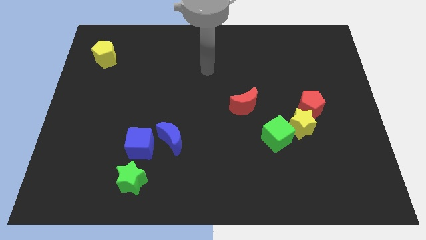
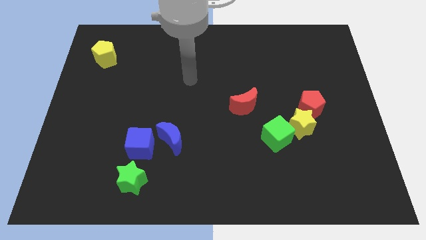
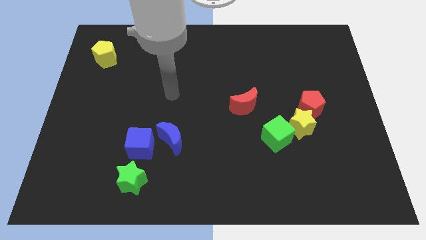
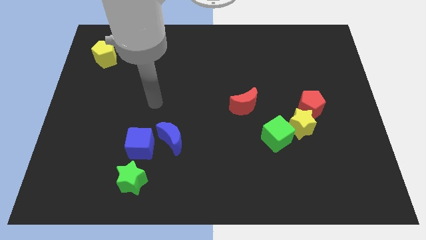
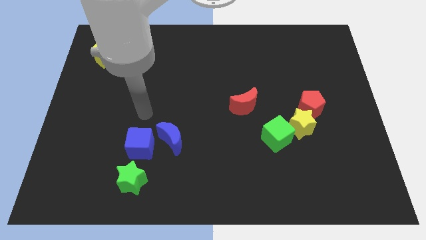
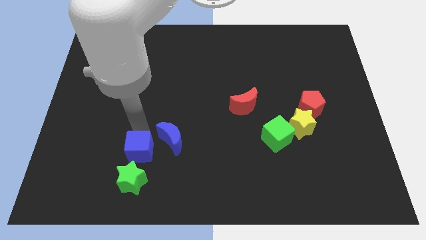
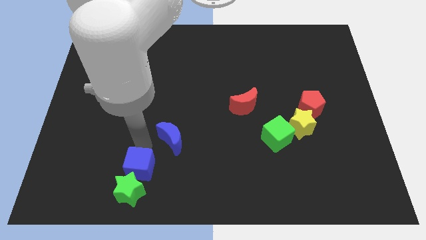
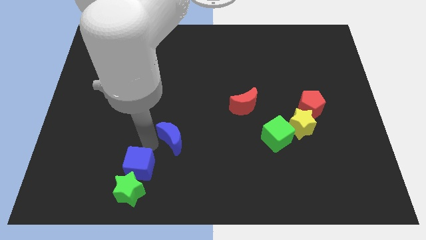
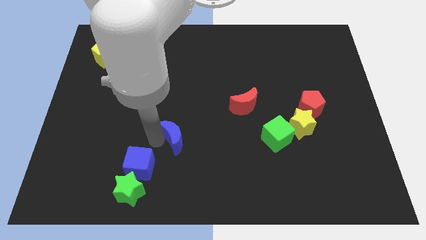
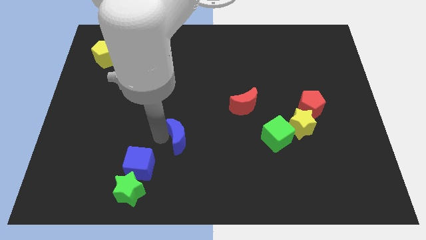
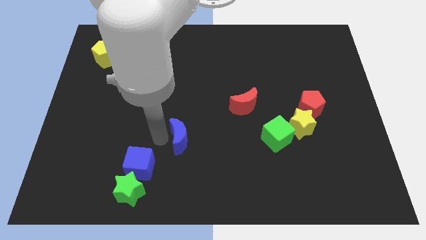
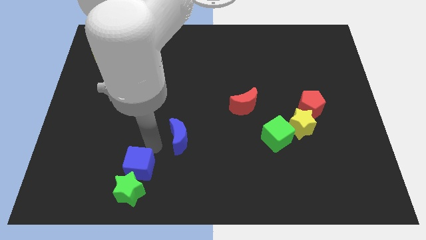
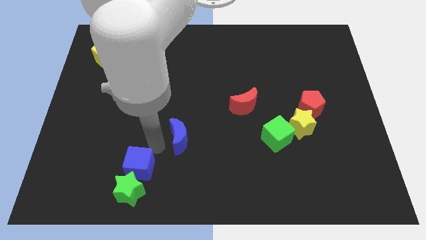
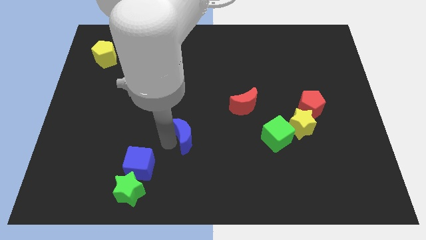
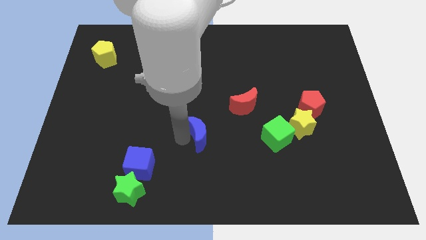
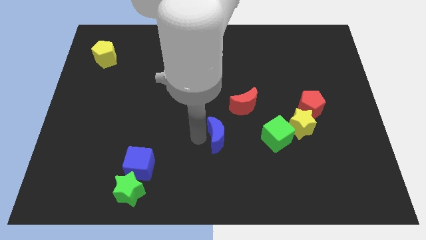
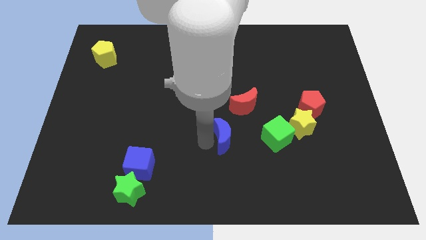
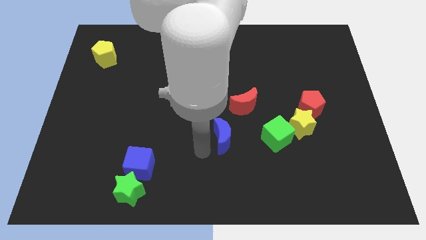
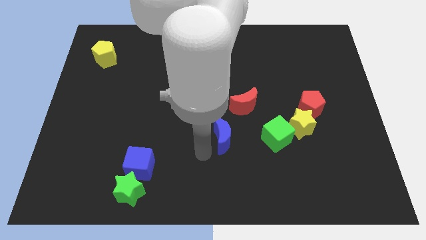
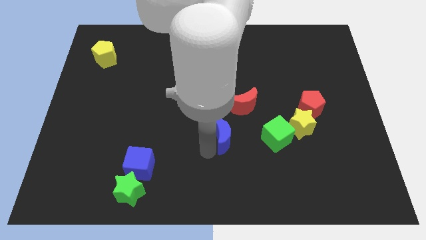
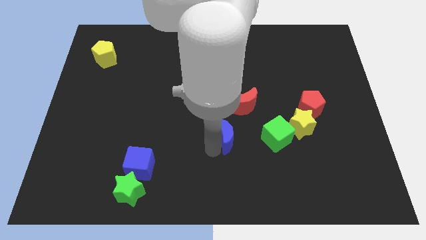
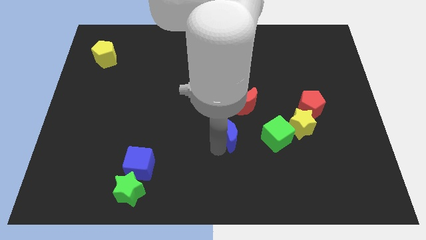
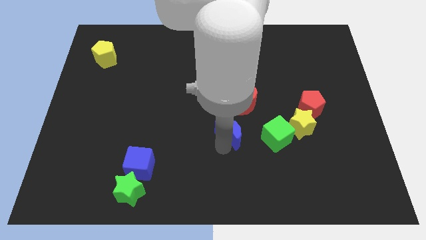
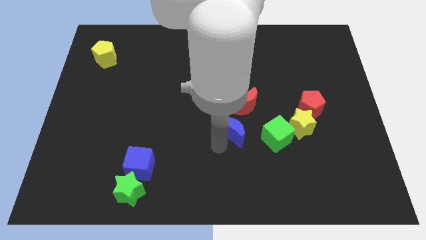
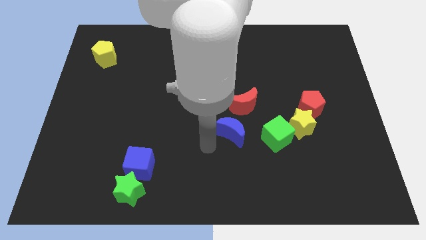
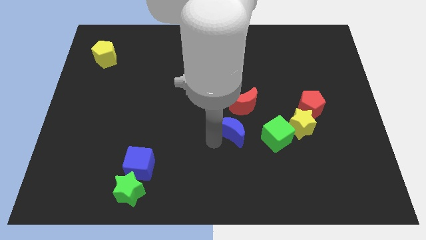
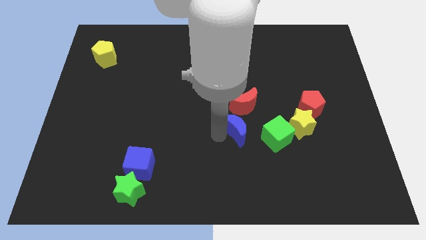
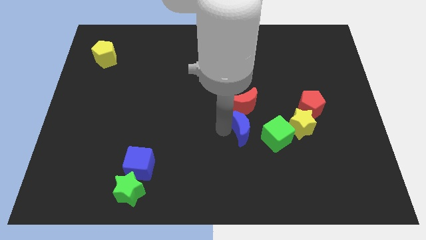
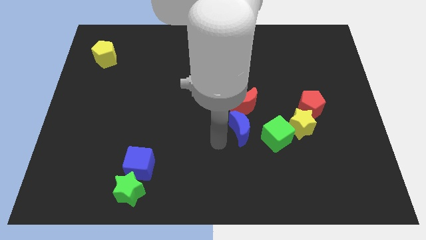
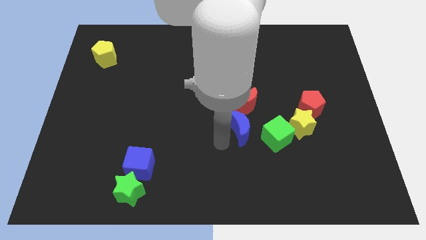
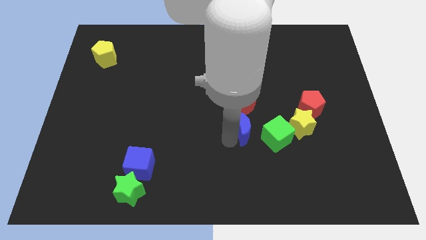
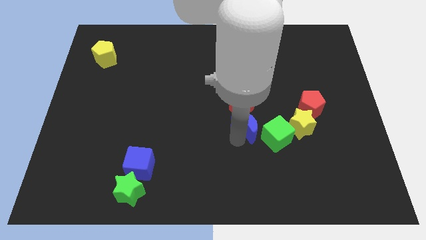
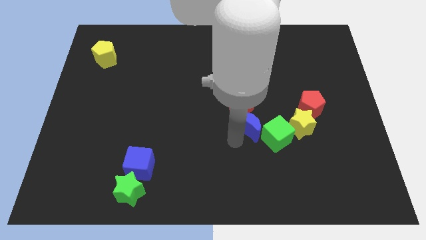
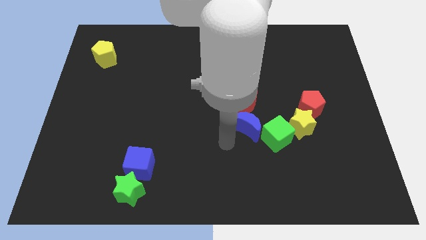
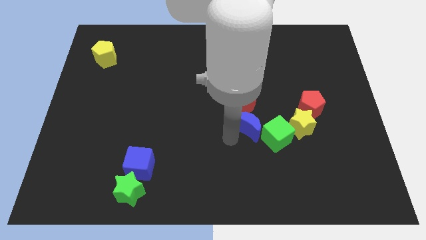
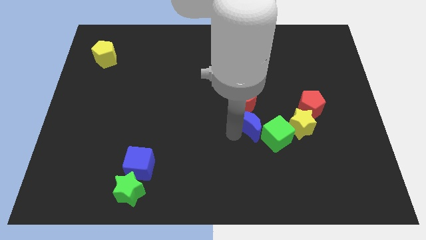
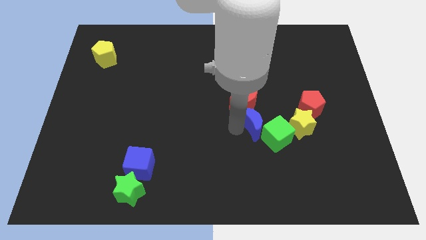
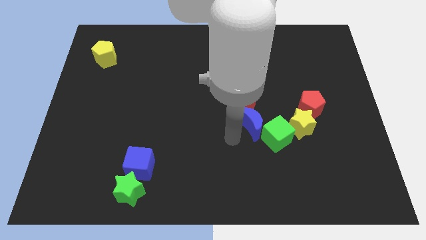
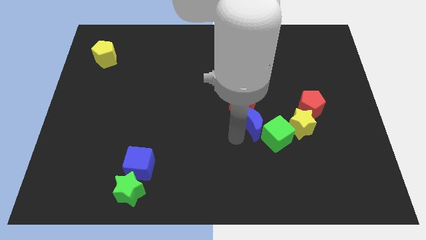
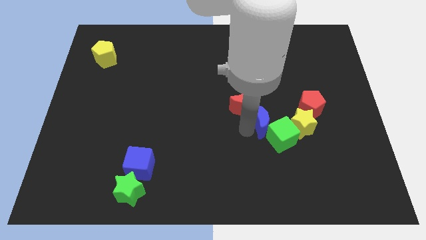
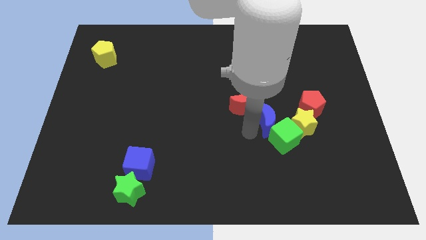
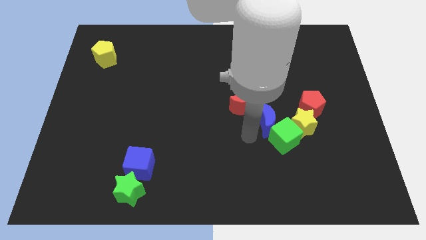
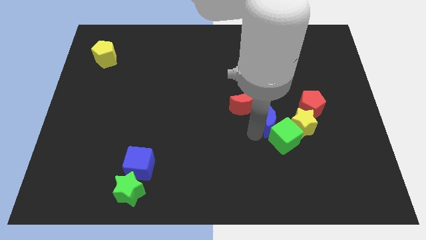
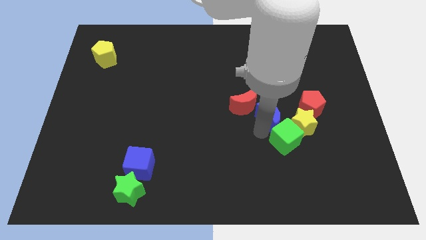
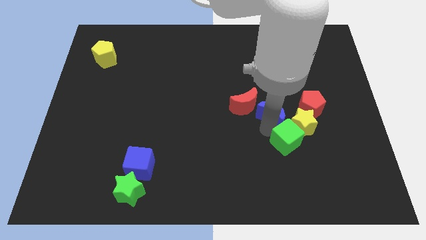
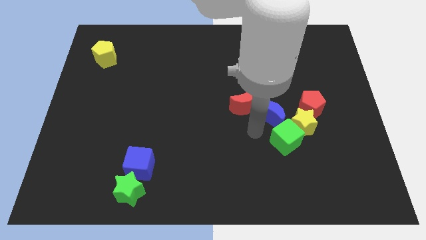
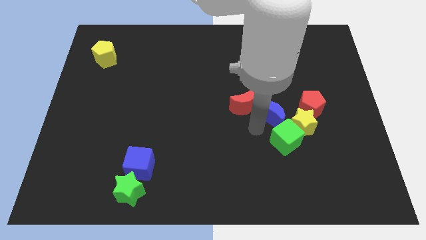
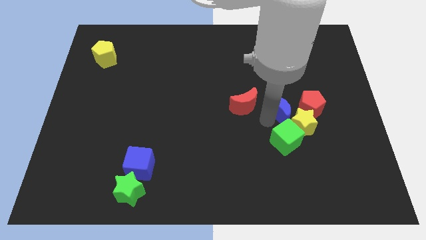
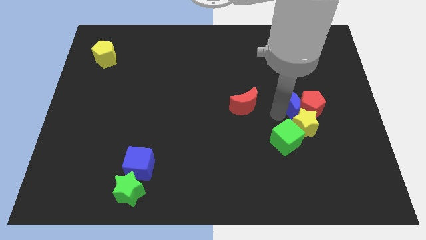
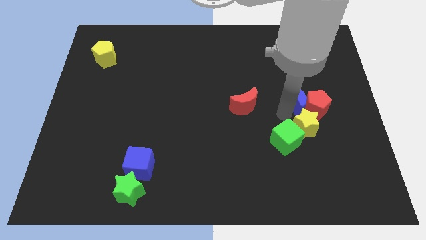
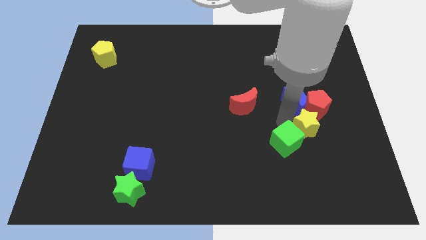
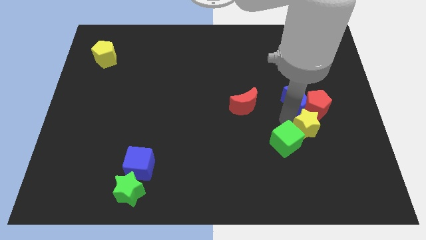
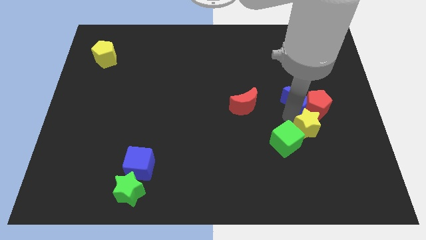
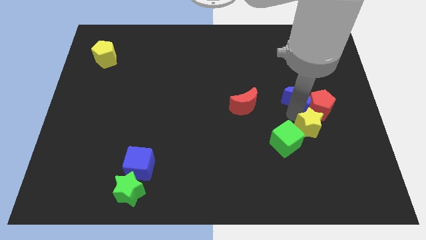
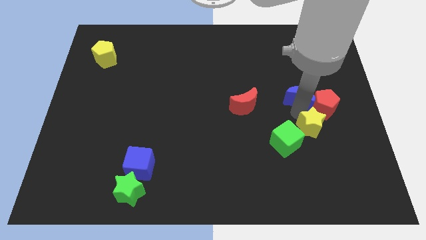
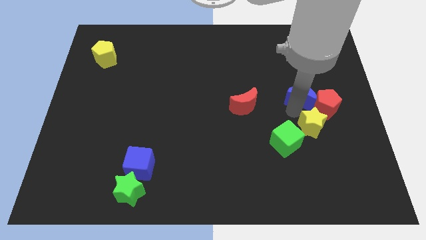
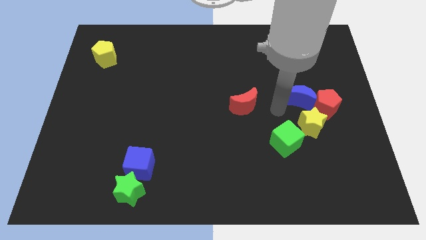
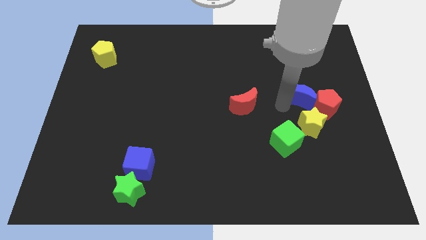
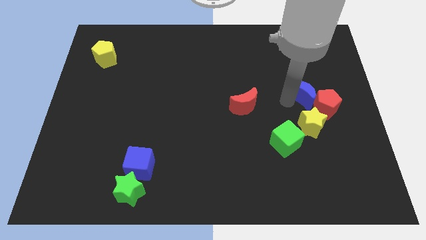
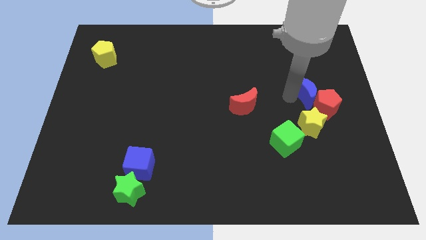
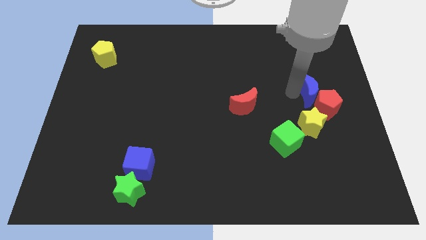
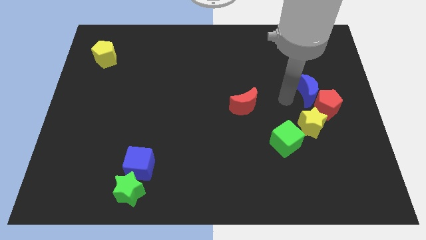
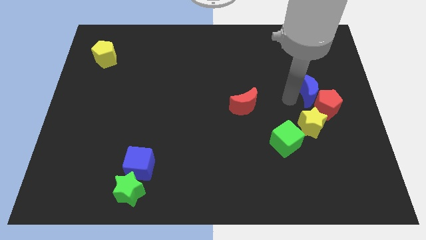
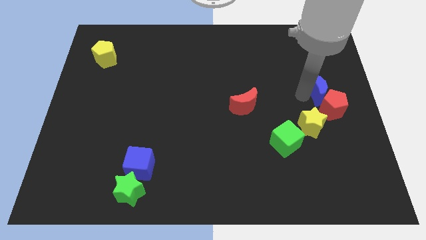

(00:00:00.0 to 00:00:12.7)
move the blue moon to the right side of the board

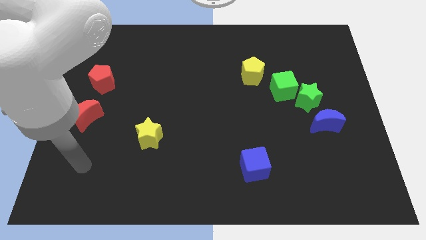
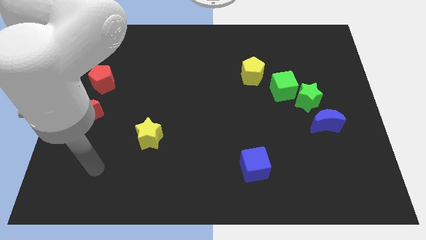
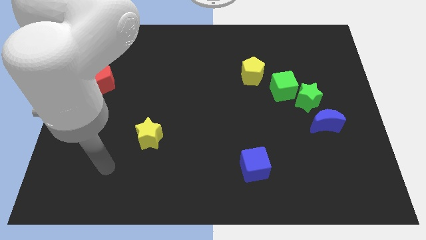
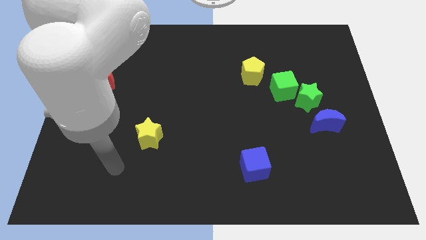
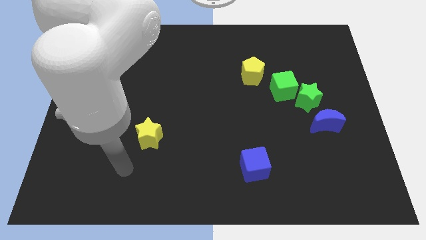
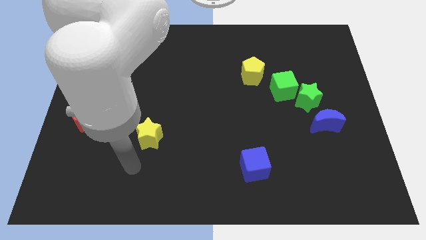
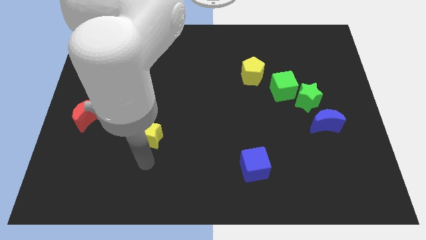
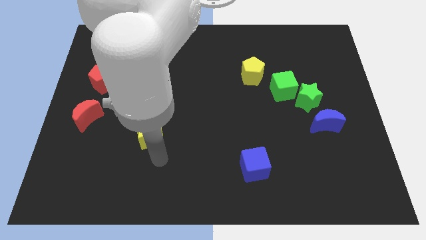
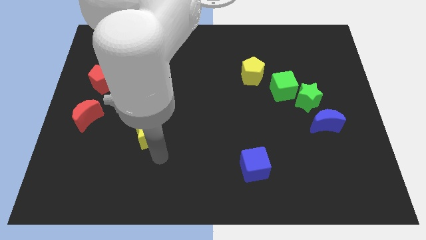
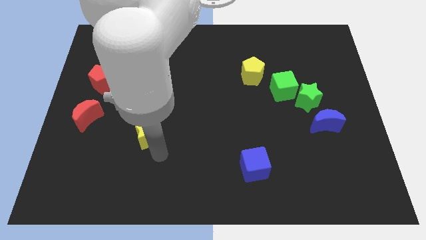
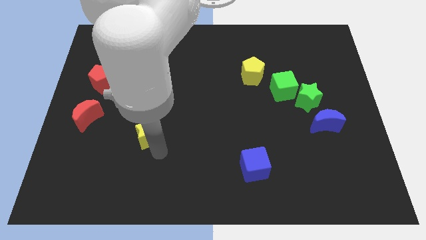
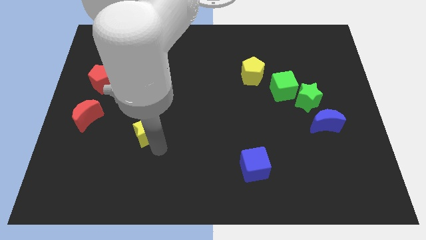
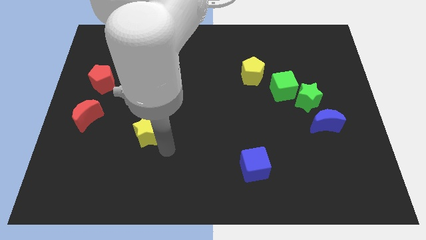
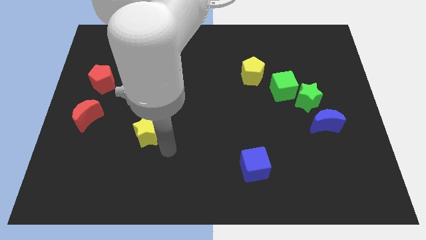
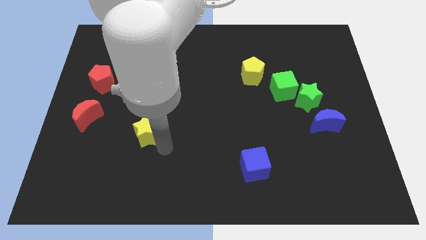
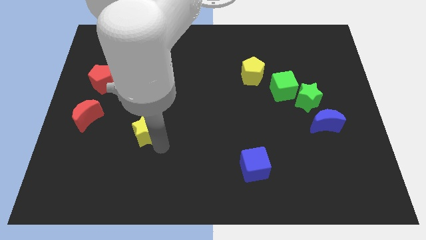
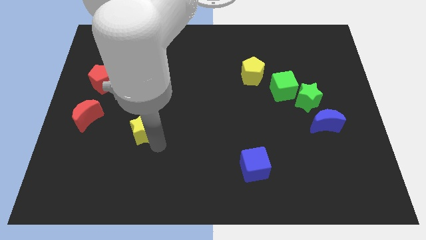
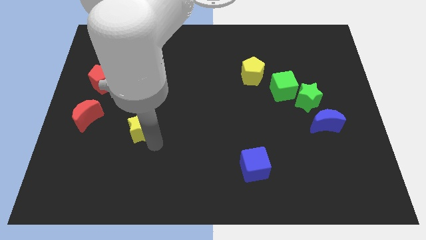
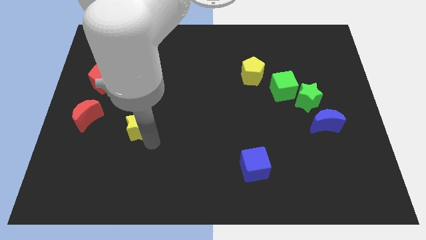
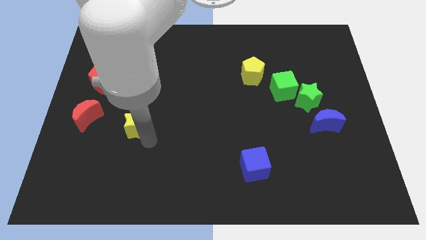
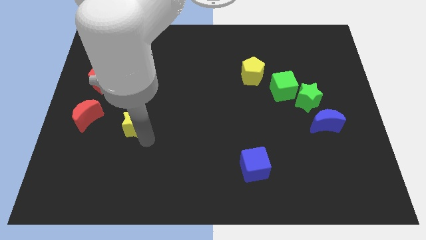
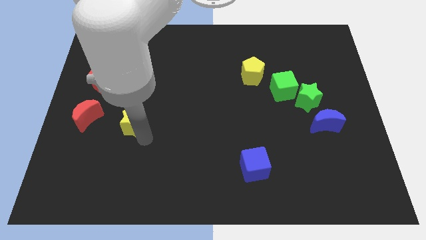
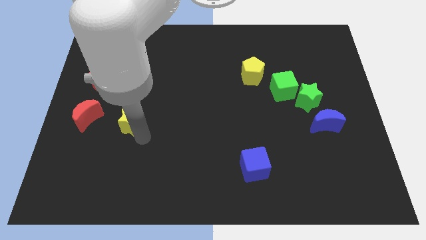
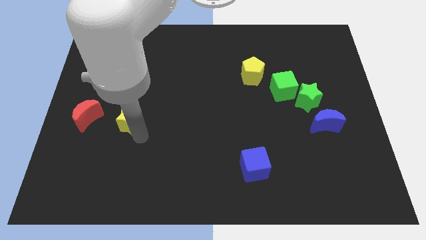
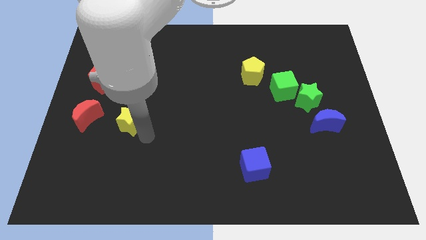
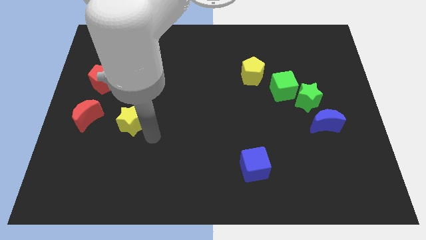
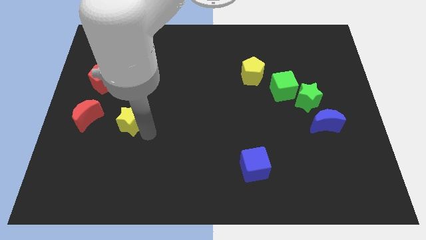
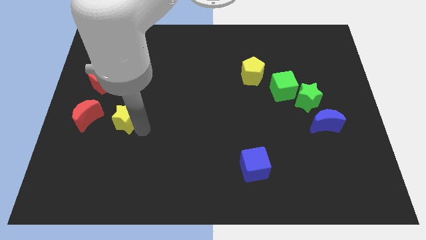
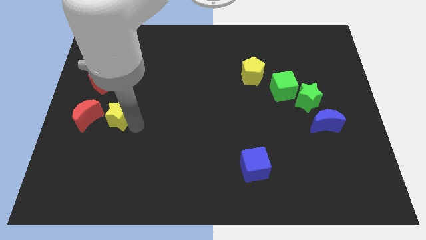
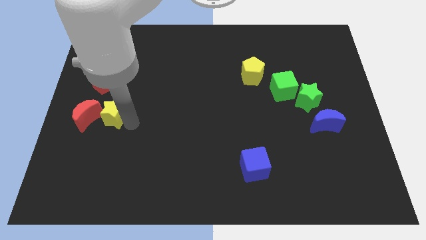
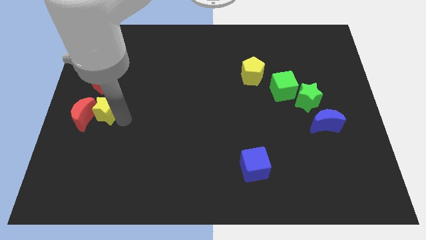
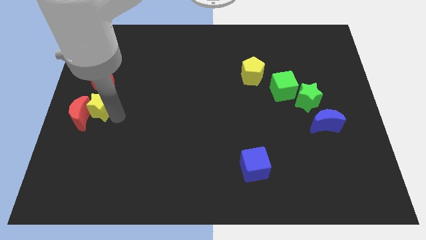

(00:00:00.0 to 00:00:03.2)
move the yellow star to the left side
